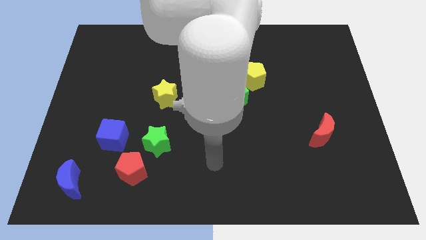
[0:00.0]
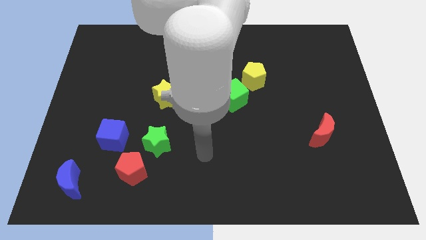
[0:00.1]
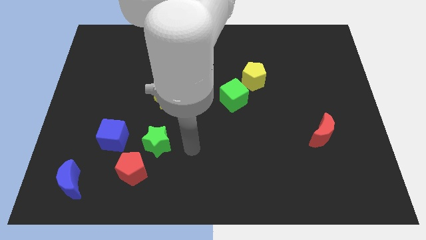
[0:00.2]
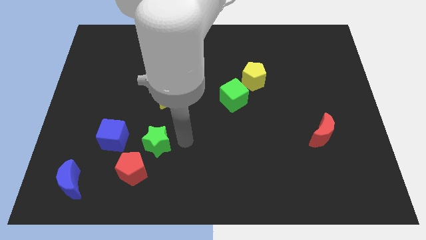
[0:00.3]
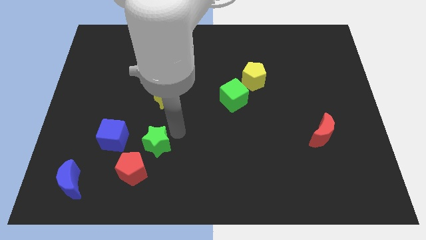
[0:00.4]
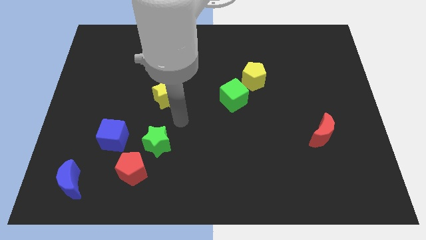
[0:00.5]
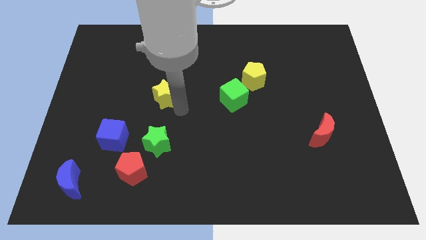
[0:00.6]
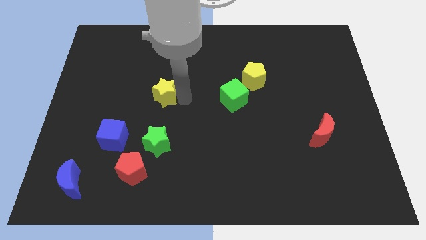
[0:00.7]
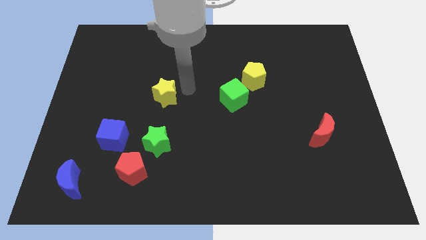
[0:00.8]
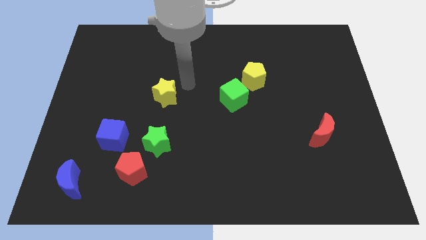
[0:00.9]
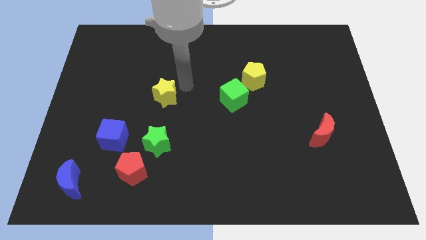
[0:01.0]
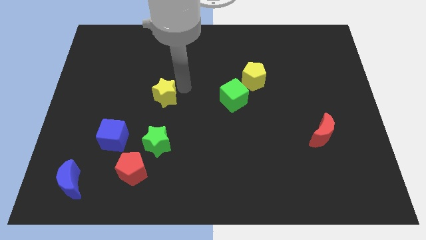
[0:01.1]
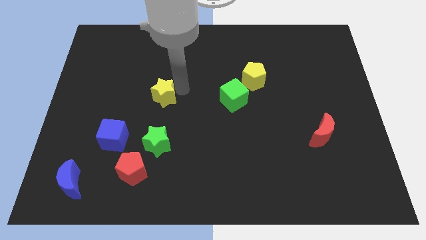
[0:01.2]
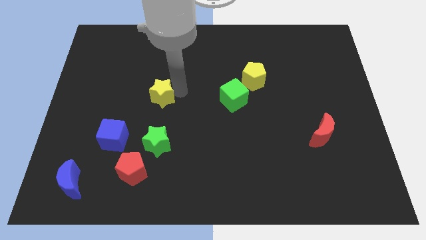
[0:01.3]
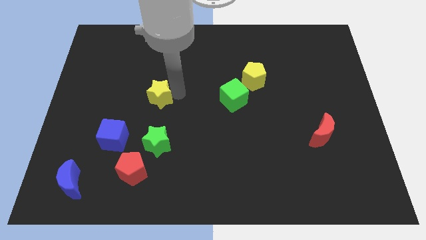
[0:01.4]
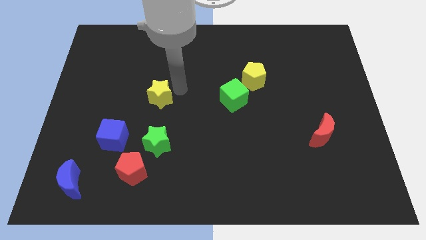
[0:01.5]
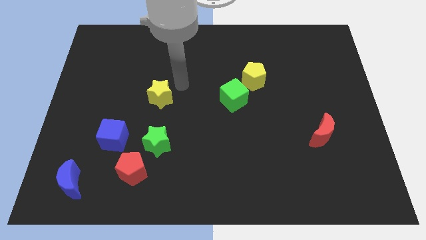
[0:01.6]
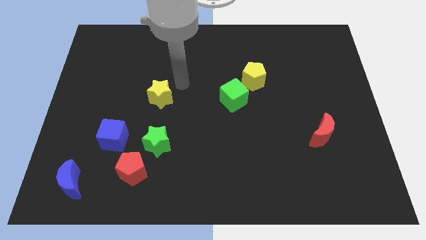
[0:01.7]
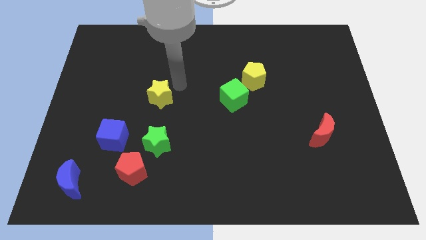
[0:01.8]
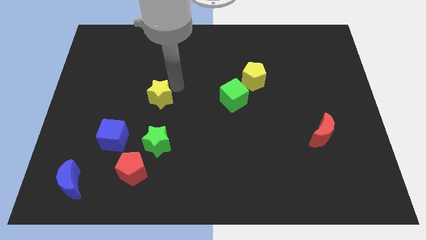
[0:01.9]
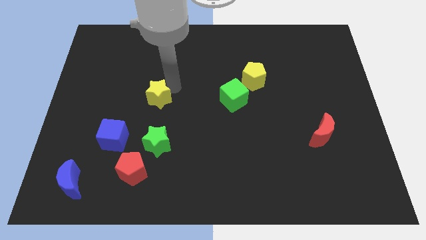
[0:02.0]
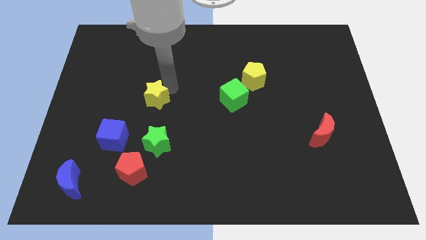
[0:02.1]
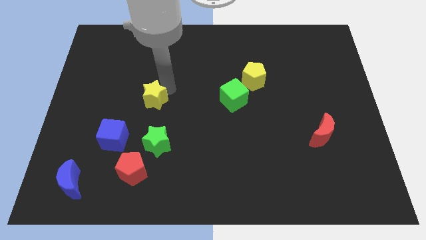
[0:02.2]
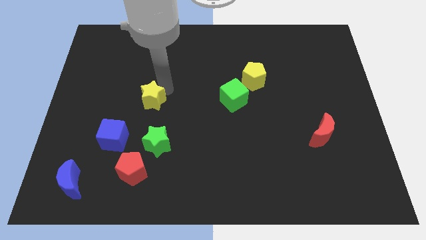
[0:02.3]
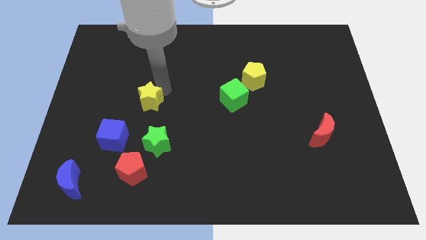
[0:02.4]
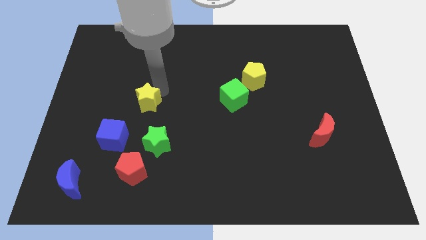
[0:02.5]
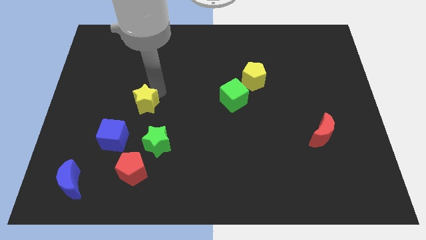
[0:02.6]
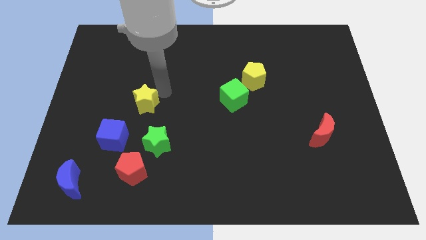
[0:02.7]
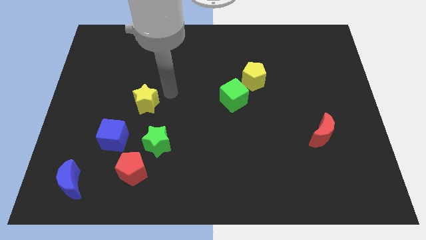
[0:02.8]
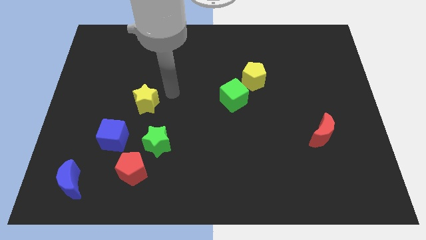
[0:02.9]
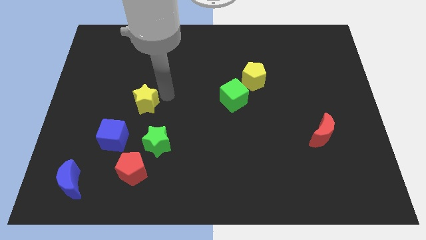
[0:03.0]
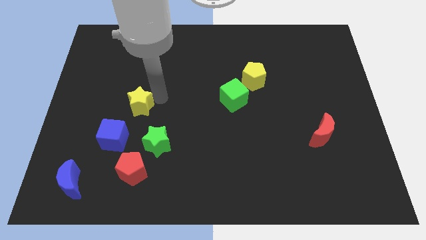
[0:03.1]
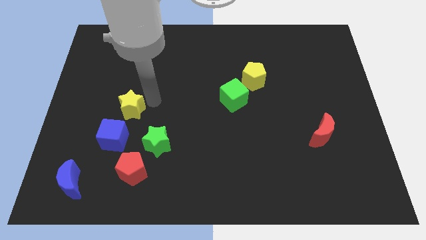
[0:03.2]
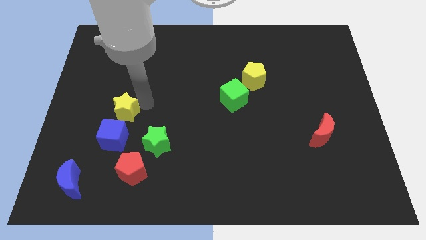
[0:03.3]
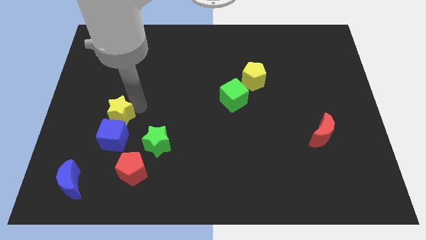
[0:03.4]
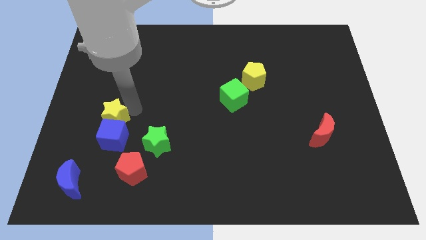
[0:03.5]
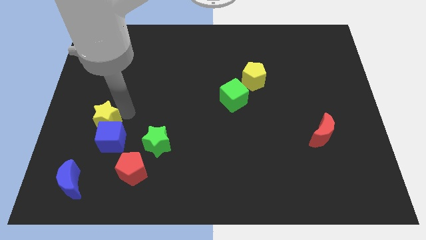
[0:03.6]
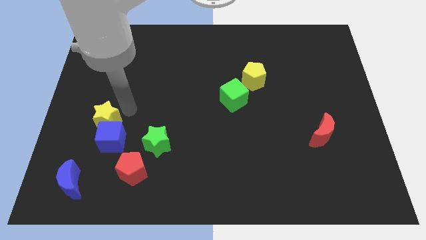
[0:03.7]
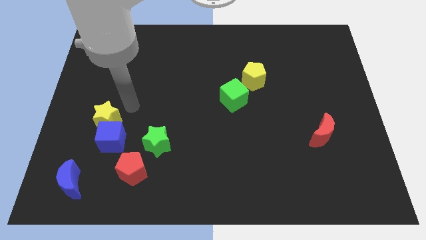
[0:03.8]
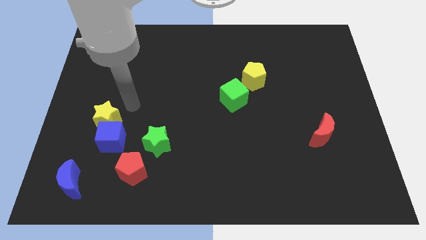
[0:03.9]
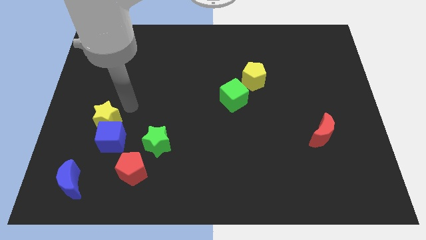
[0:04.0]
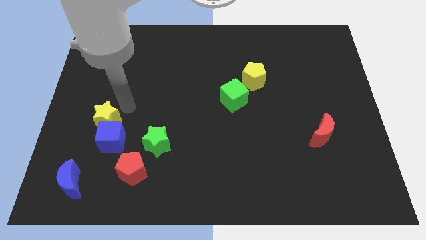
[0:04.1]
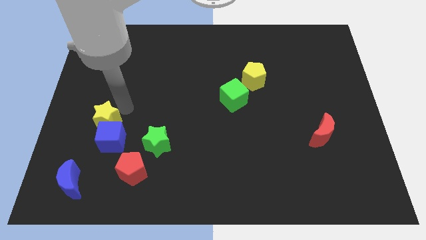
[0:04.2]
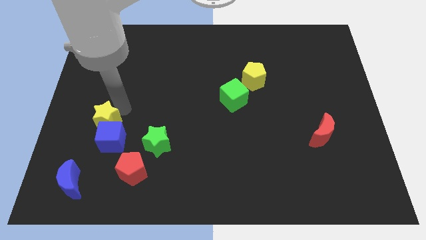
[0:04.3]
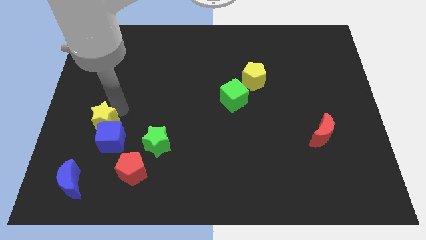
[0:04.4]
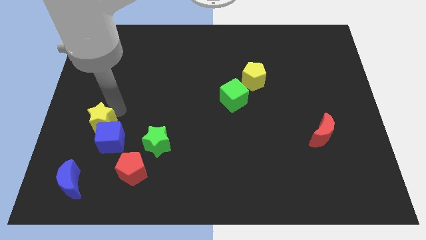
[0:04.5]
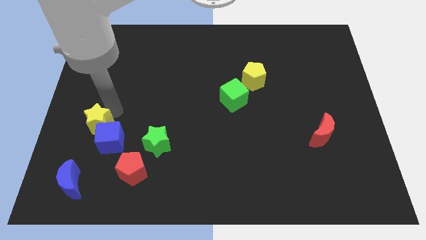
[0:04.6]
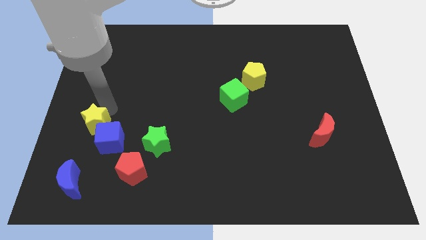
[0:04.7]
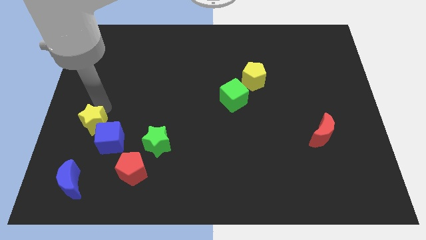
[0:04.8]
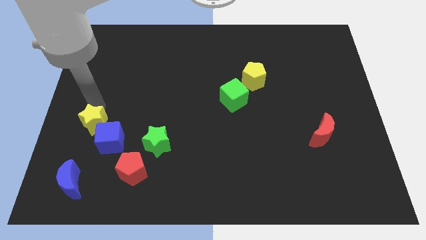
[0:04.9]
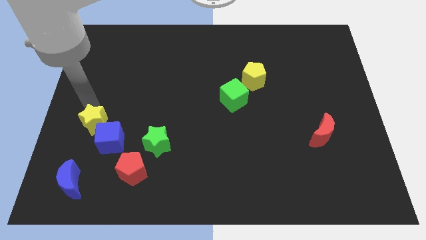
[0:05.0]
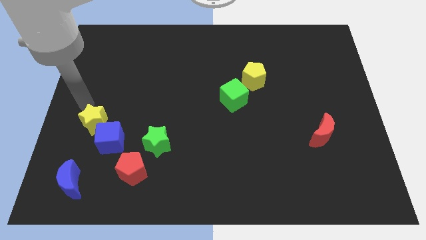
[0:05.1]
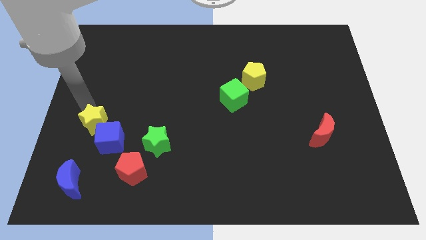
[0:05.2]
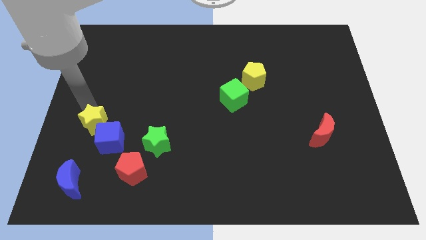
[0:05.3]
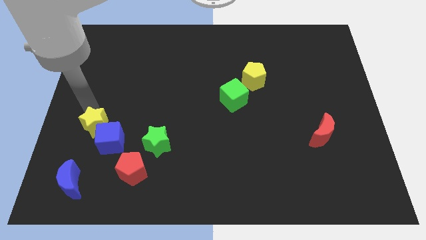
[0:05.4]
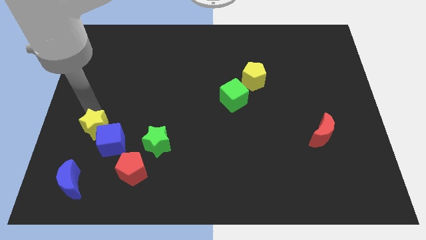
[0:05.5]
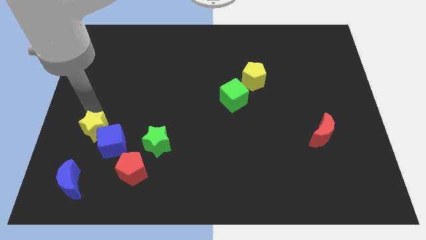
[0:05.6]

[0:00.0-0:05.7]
slide the yellow star to the left of the green star

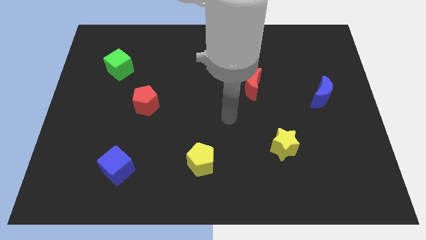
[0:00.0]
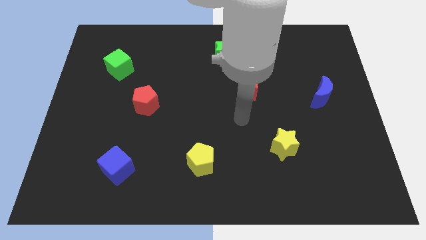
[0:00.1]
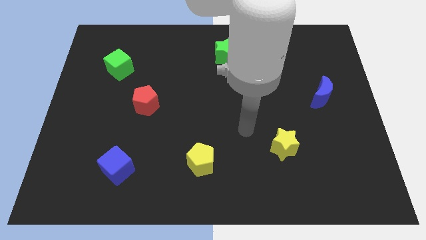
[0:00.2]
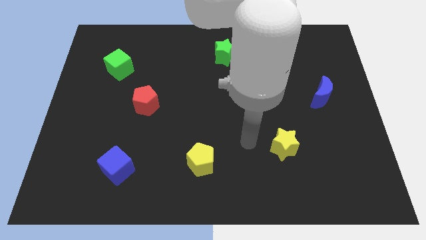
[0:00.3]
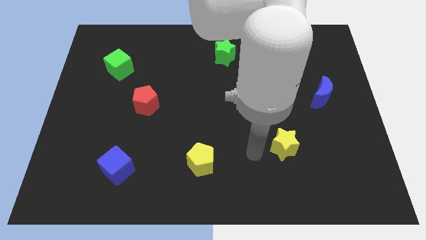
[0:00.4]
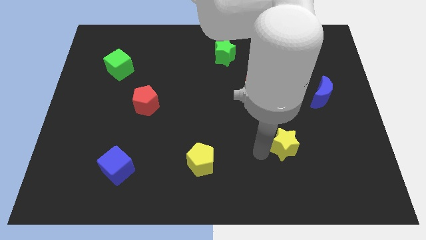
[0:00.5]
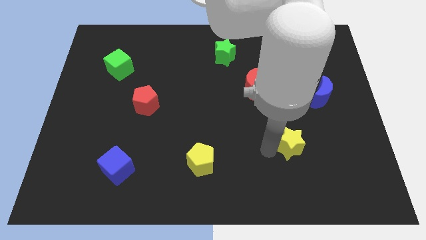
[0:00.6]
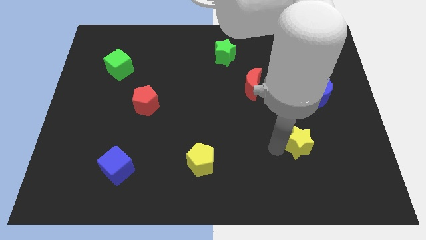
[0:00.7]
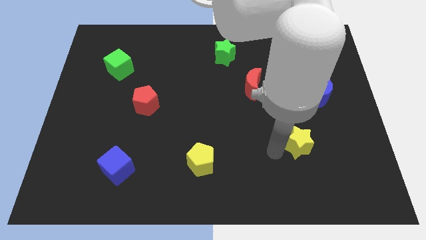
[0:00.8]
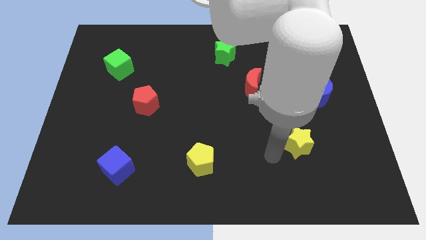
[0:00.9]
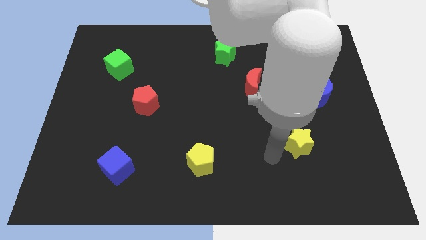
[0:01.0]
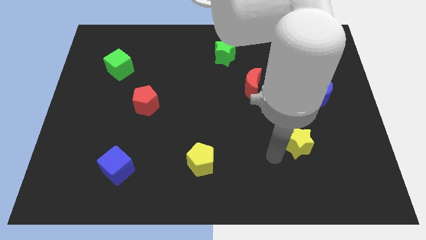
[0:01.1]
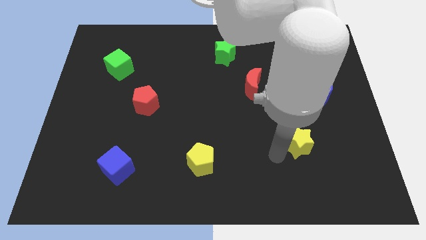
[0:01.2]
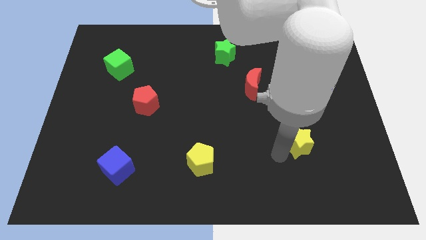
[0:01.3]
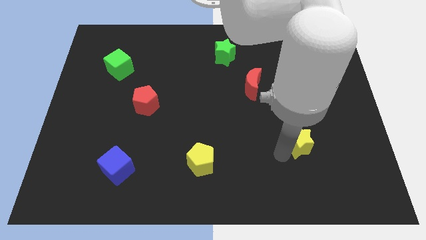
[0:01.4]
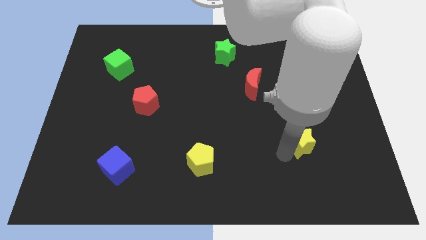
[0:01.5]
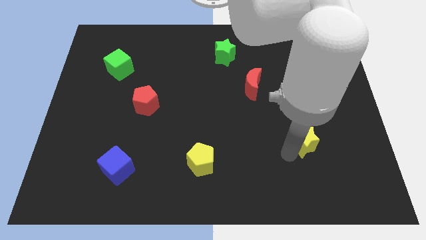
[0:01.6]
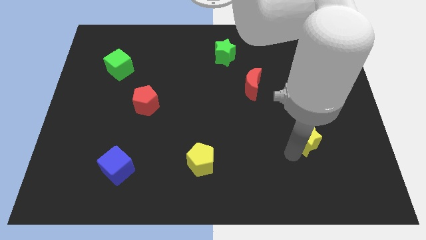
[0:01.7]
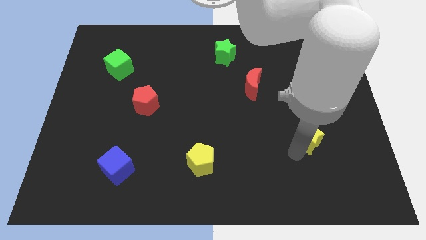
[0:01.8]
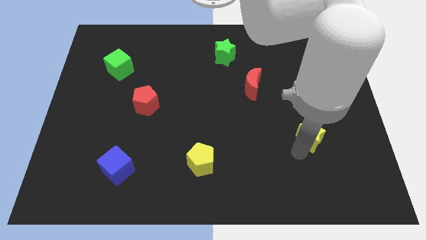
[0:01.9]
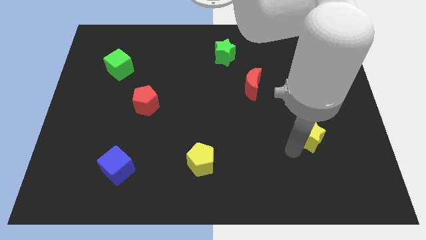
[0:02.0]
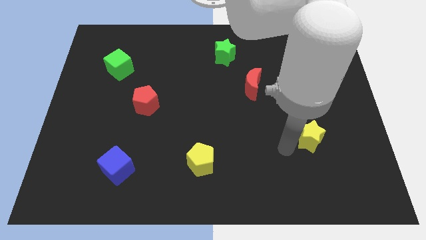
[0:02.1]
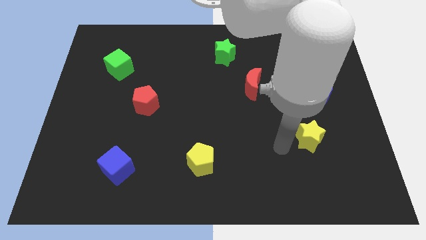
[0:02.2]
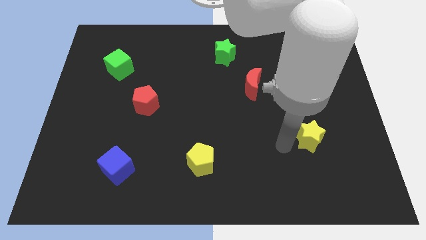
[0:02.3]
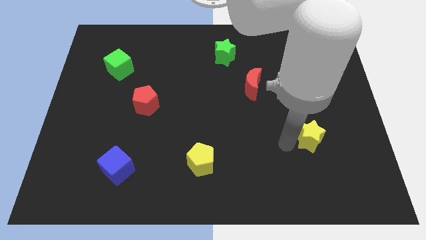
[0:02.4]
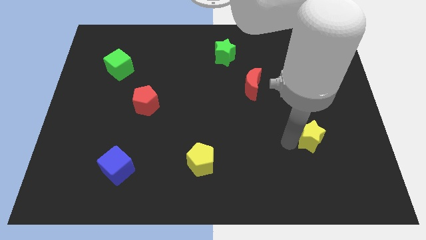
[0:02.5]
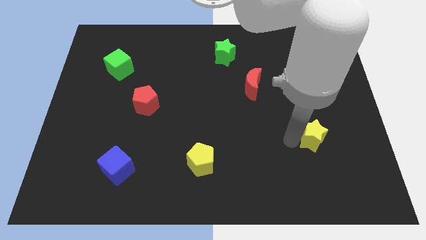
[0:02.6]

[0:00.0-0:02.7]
move the yellow star to the bottom side of the blue moon
